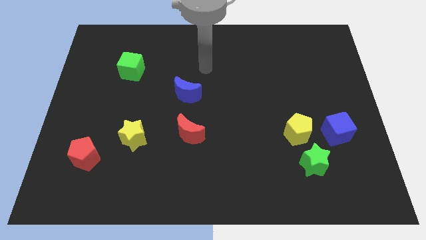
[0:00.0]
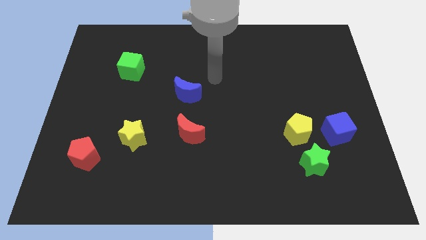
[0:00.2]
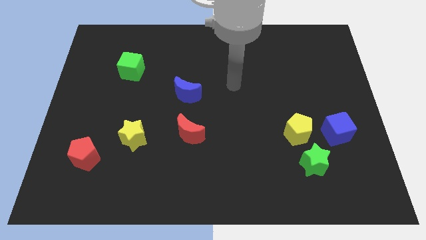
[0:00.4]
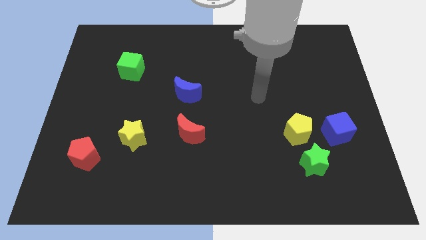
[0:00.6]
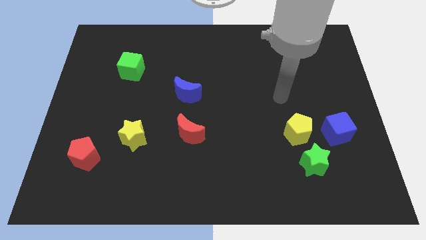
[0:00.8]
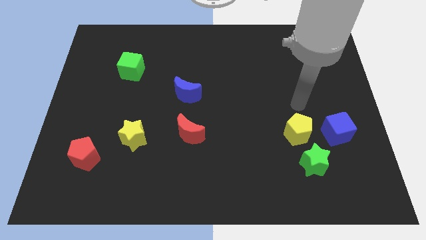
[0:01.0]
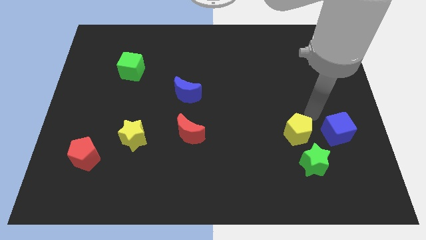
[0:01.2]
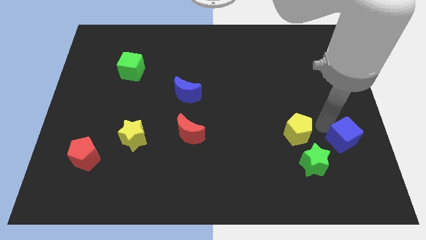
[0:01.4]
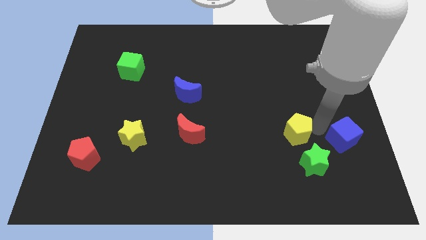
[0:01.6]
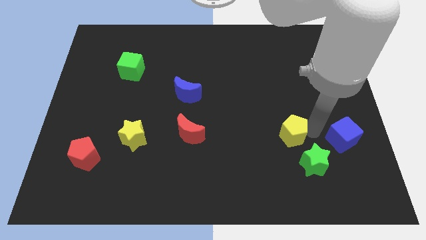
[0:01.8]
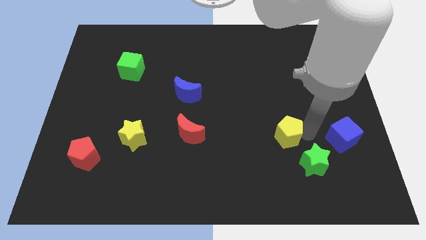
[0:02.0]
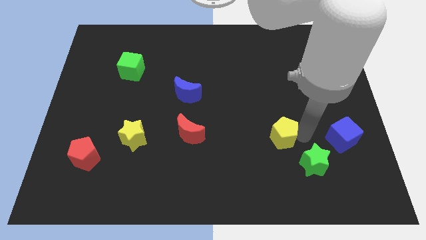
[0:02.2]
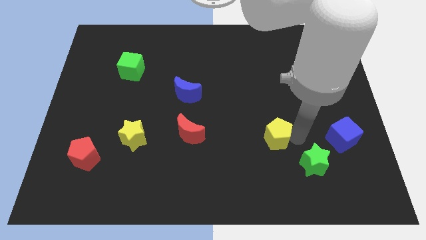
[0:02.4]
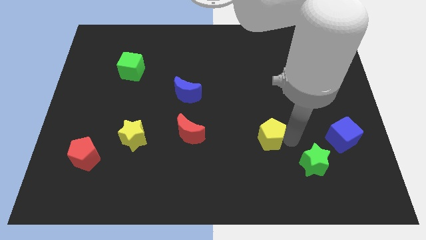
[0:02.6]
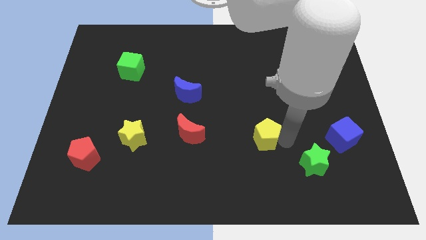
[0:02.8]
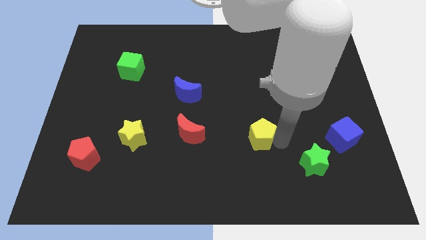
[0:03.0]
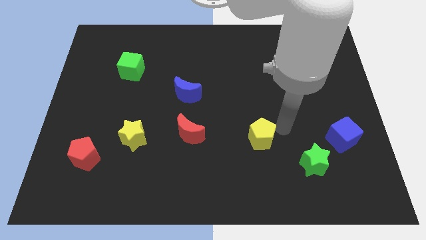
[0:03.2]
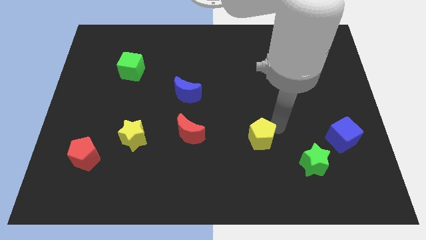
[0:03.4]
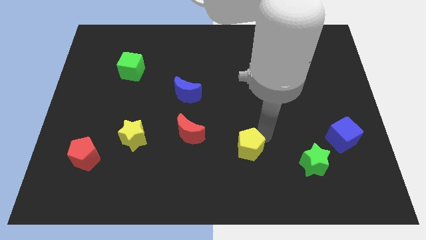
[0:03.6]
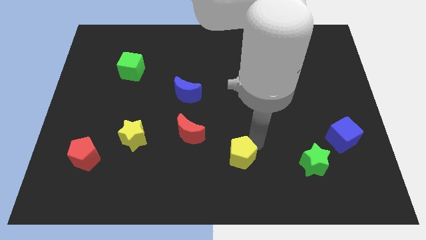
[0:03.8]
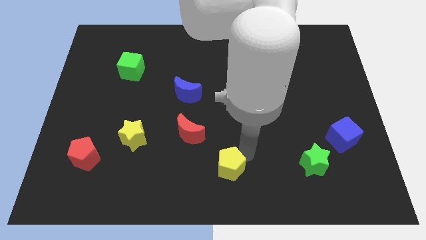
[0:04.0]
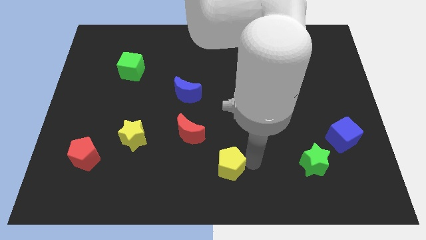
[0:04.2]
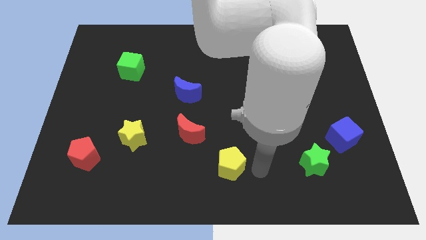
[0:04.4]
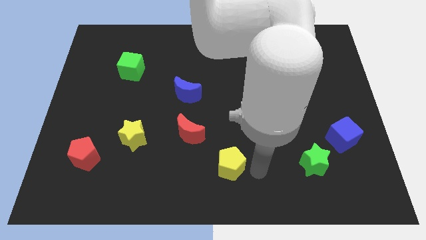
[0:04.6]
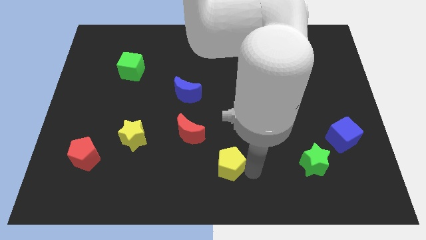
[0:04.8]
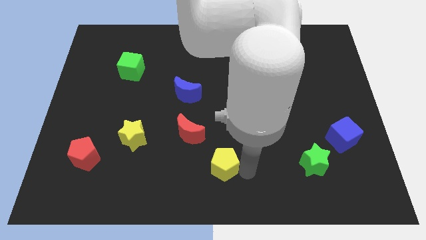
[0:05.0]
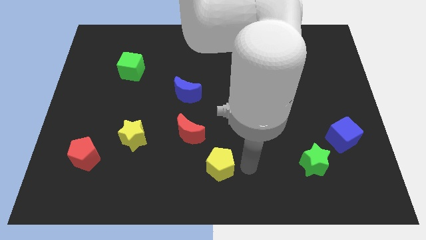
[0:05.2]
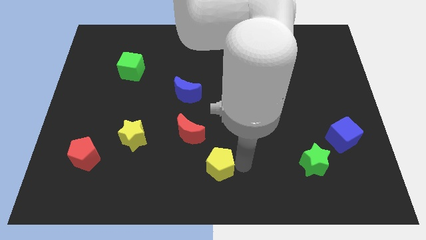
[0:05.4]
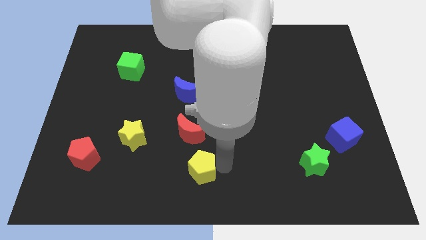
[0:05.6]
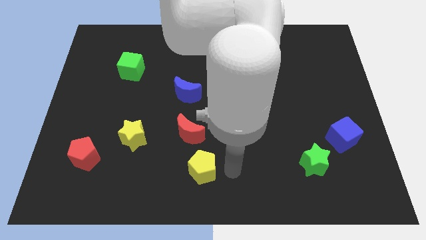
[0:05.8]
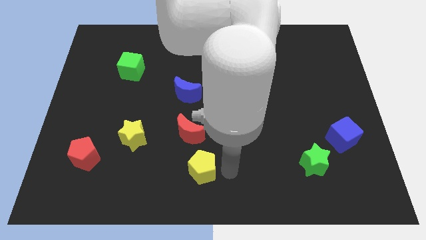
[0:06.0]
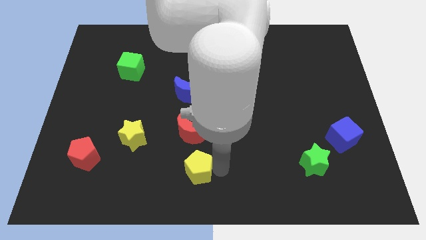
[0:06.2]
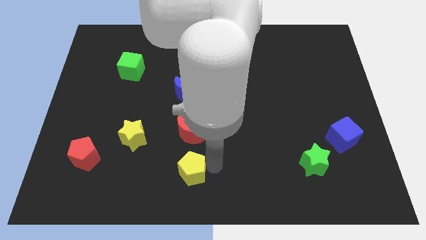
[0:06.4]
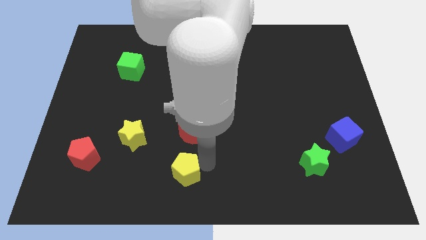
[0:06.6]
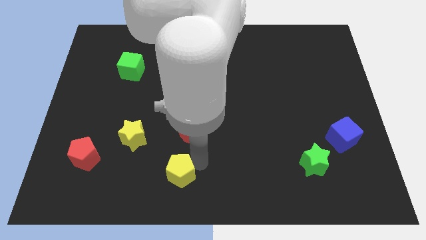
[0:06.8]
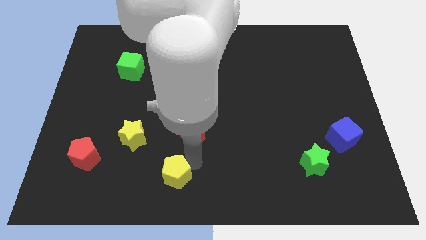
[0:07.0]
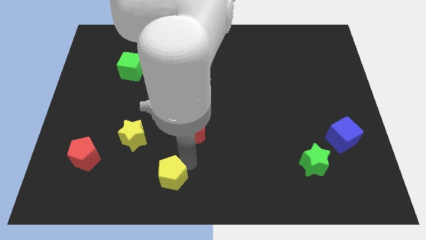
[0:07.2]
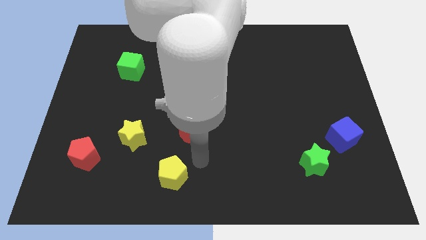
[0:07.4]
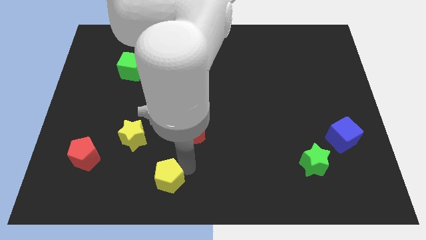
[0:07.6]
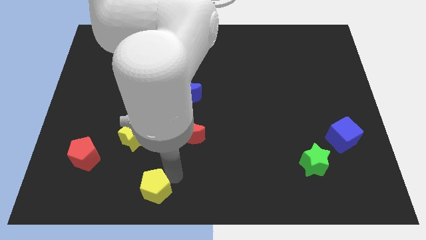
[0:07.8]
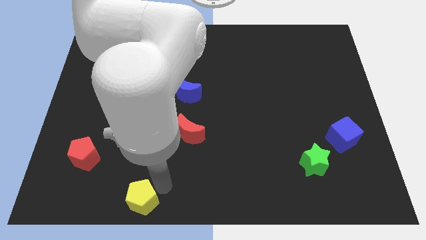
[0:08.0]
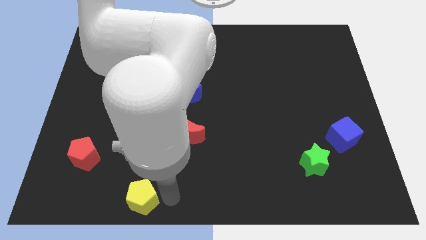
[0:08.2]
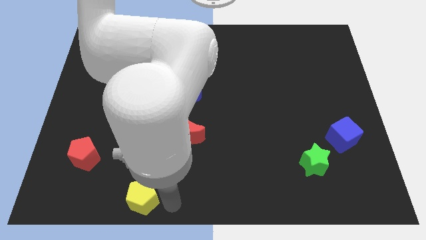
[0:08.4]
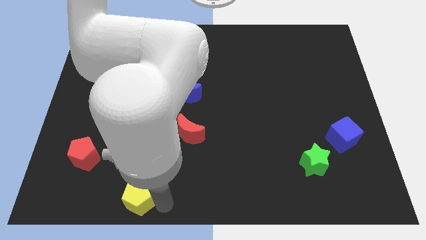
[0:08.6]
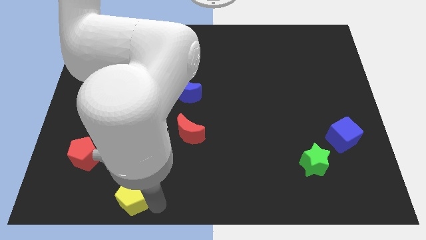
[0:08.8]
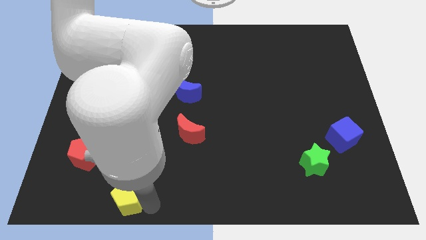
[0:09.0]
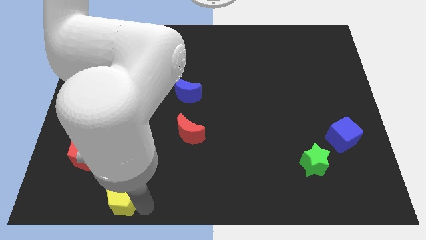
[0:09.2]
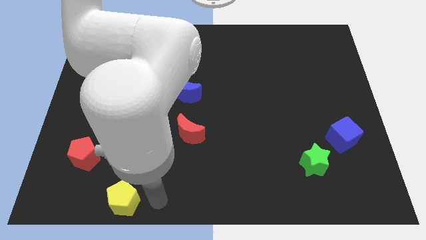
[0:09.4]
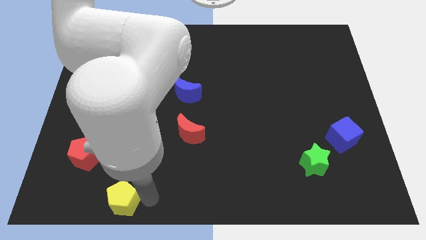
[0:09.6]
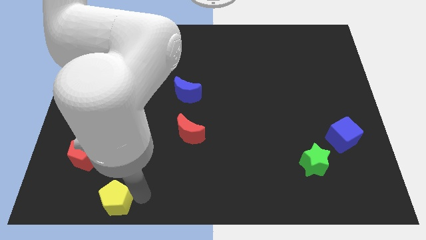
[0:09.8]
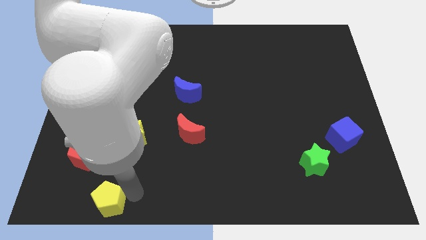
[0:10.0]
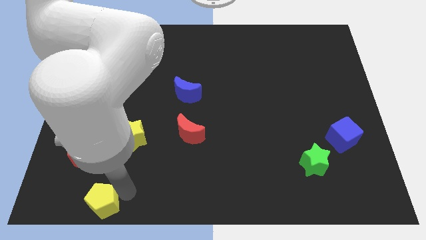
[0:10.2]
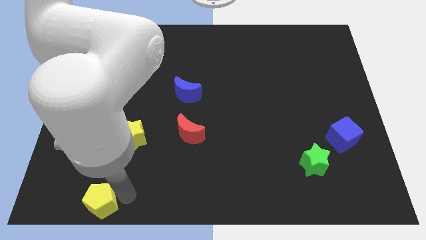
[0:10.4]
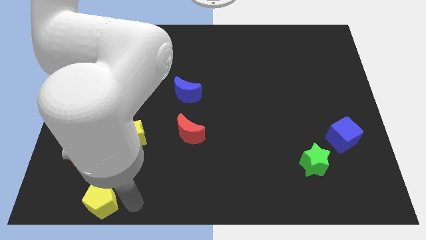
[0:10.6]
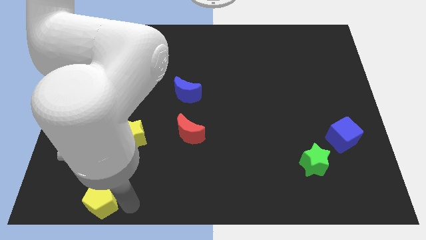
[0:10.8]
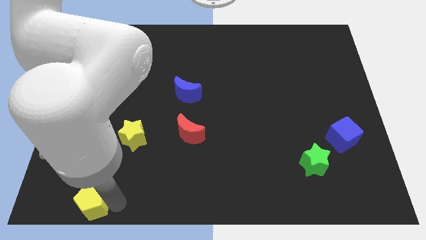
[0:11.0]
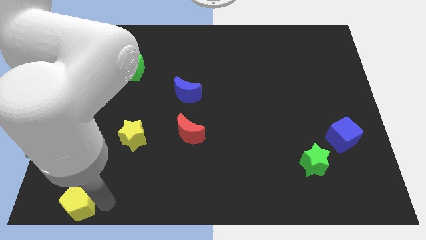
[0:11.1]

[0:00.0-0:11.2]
move the yellow pentagon to the lower left corner
